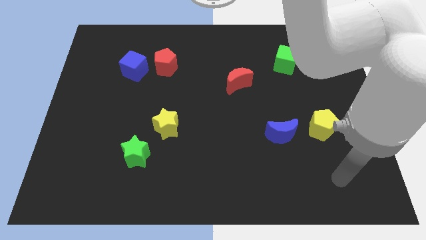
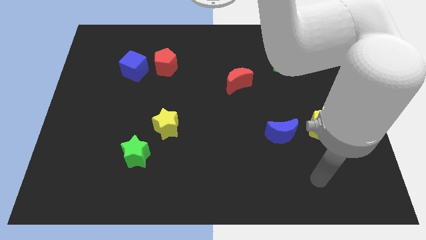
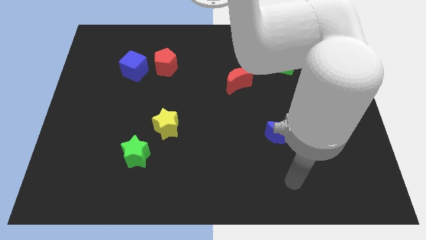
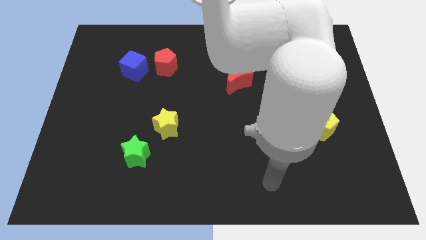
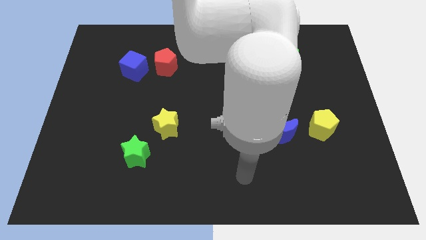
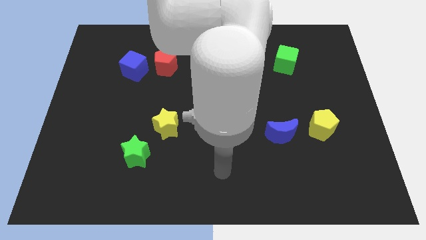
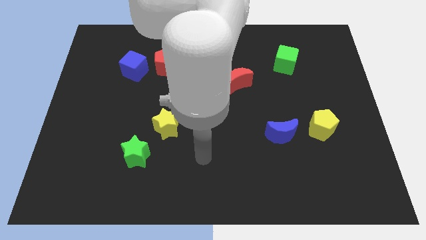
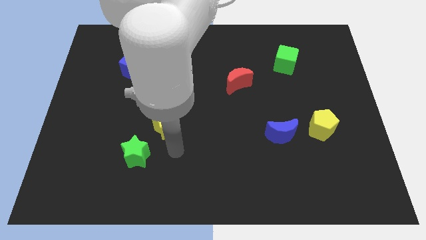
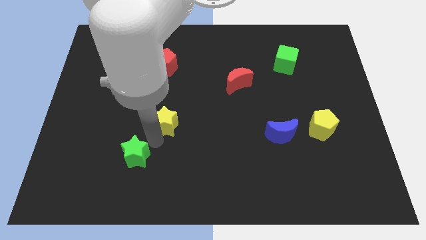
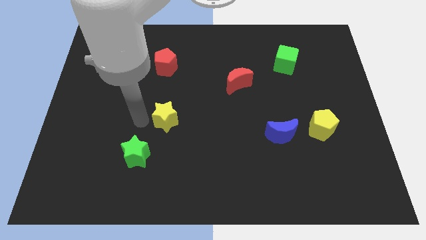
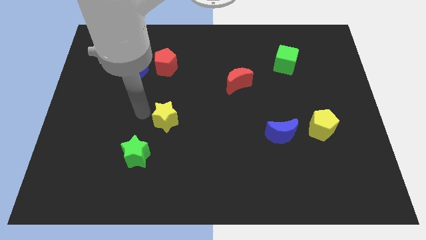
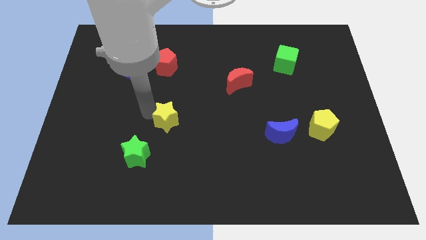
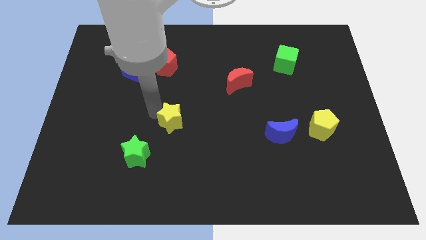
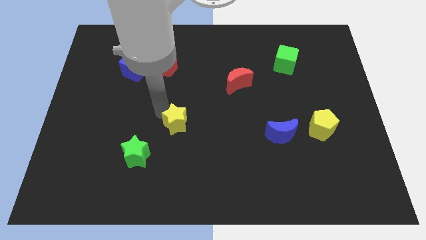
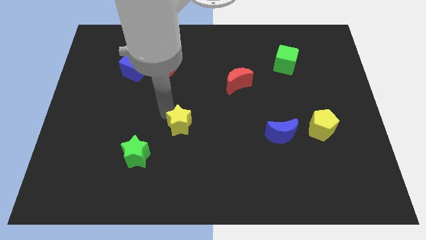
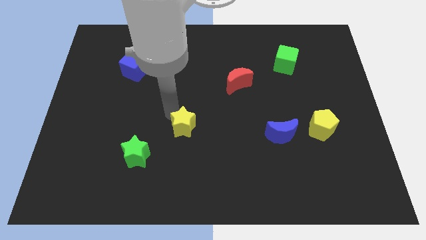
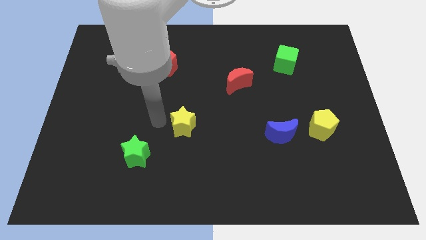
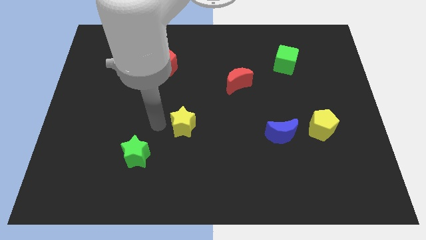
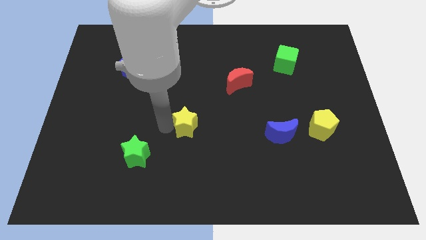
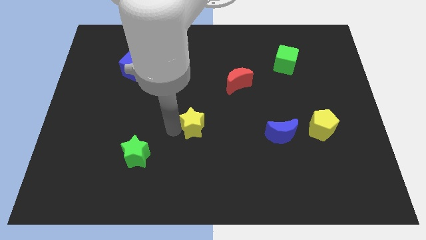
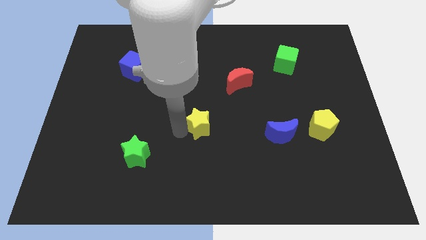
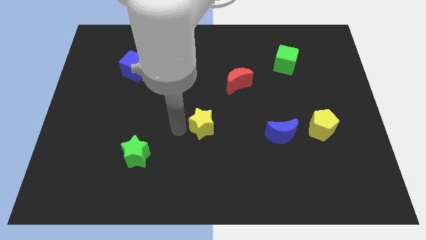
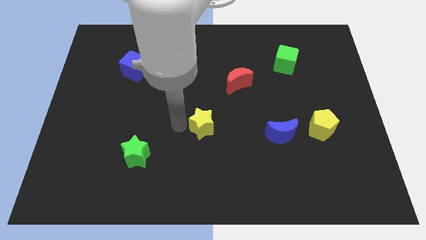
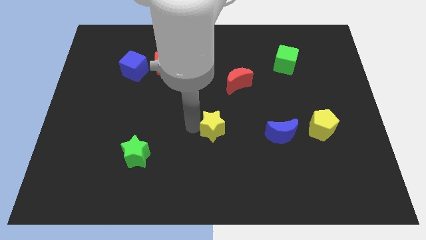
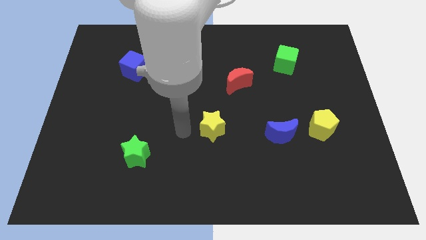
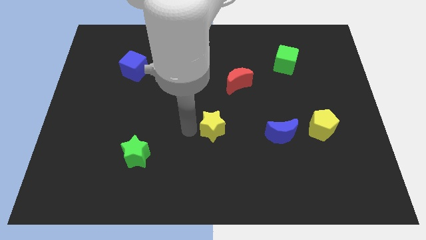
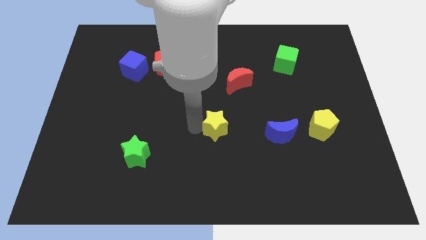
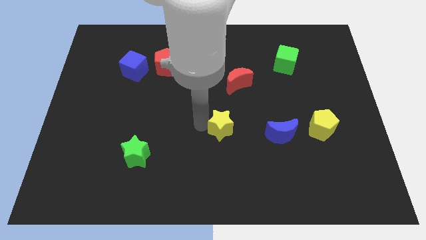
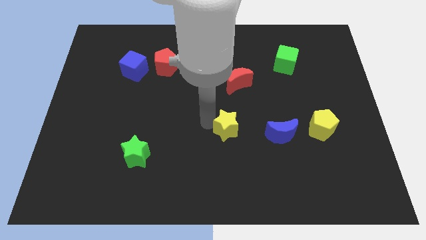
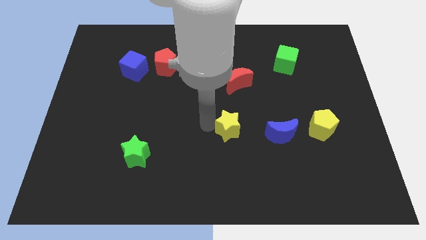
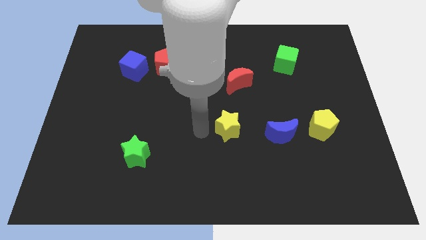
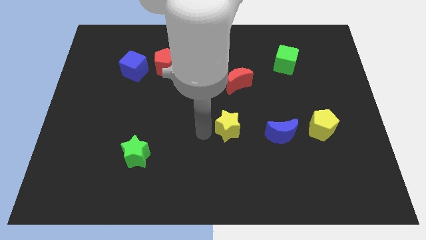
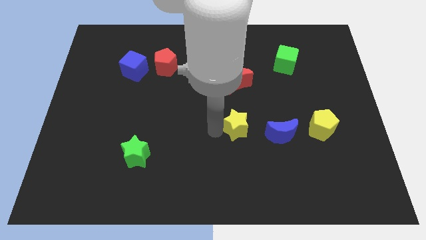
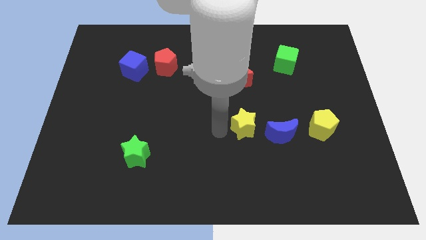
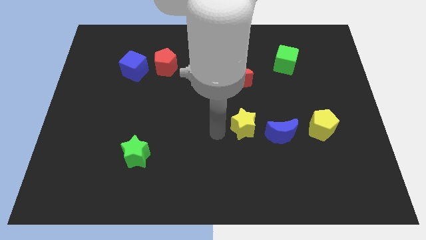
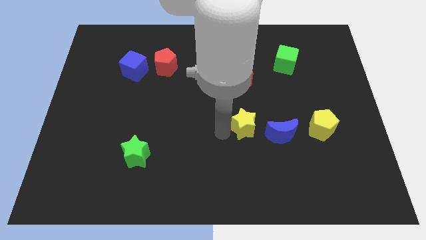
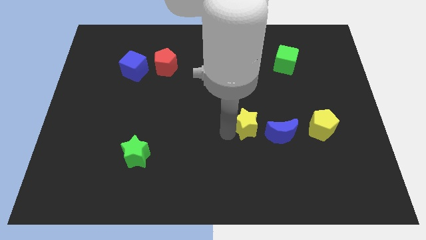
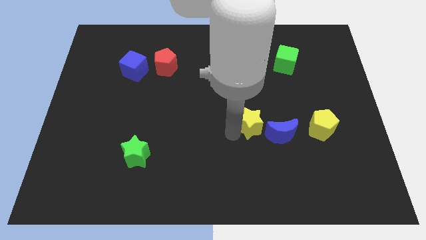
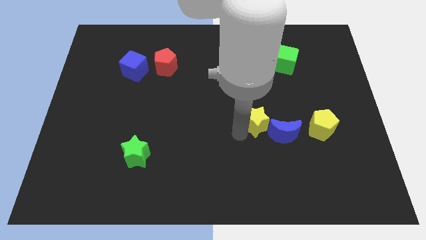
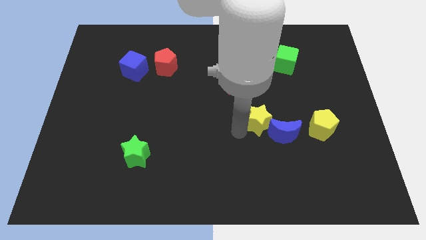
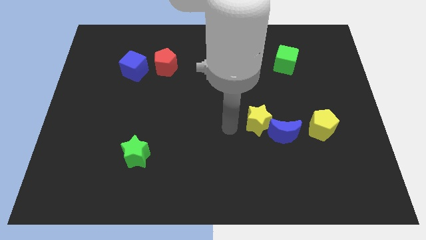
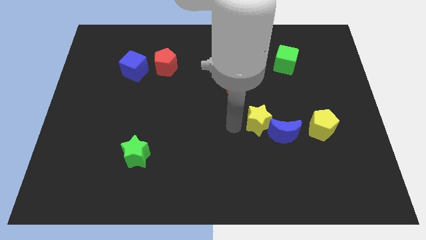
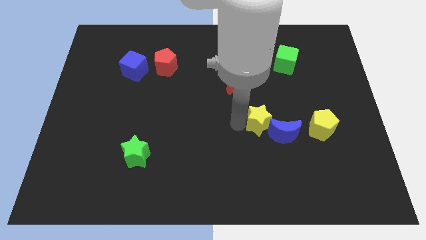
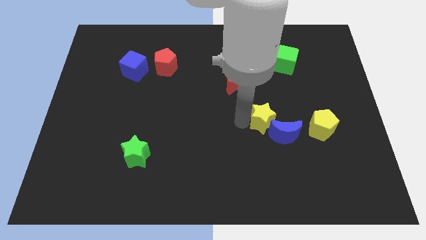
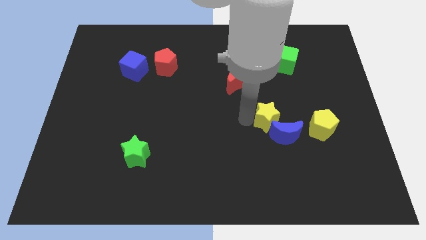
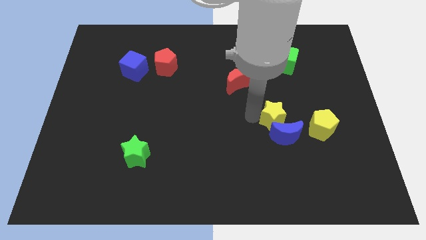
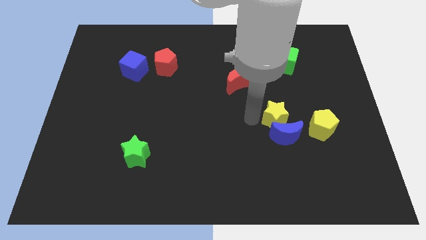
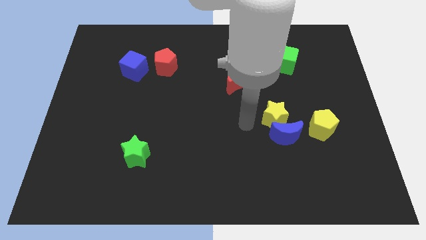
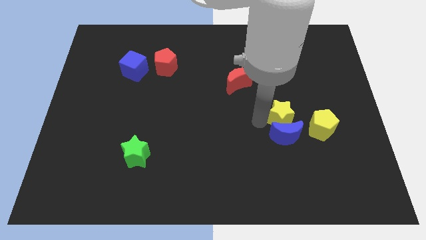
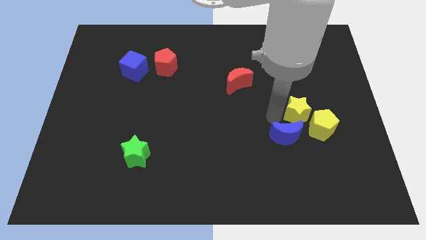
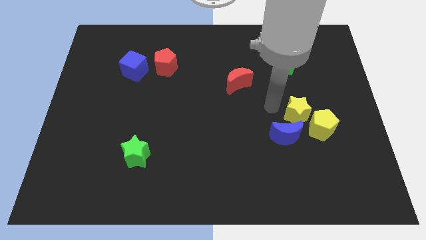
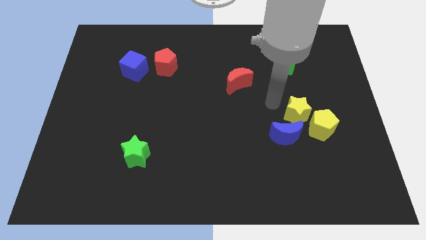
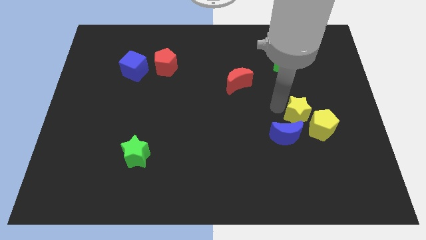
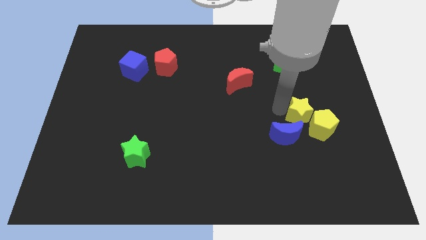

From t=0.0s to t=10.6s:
push the yellow star towards the yellow pentagon

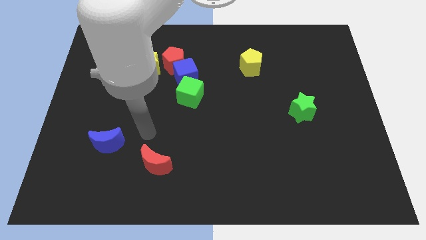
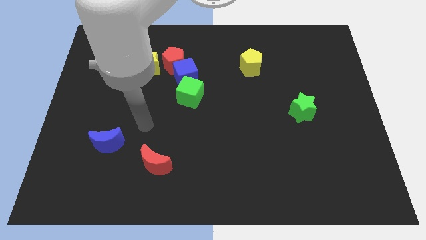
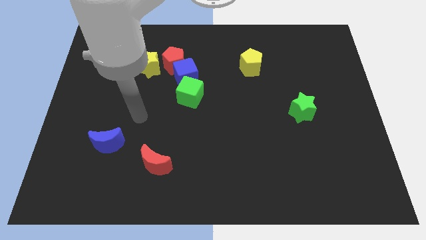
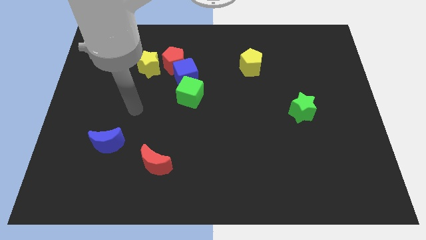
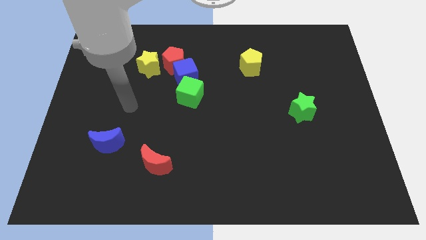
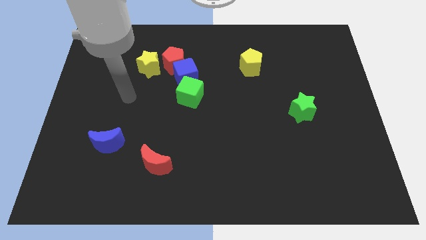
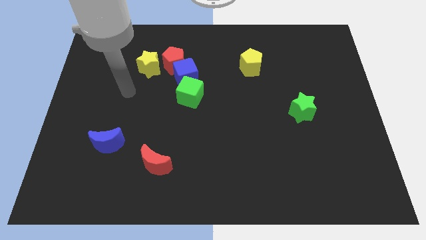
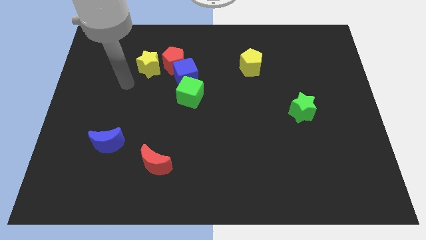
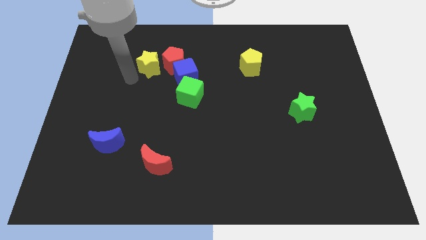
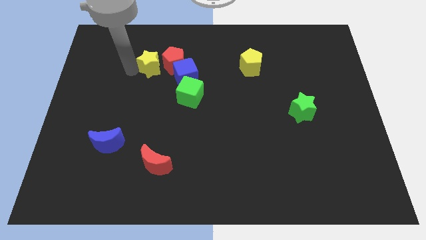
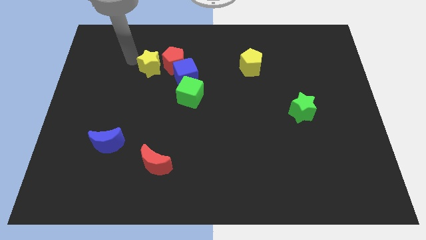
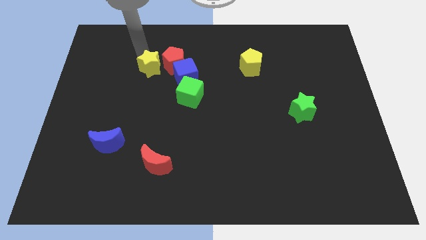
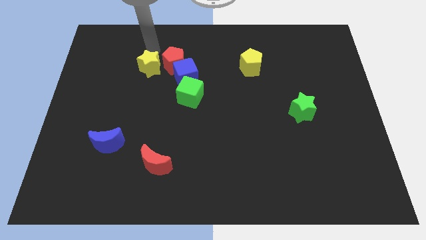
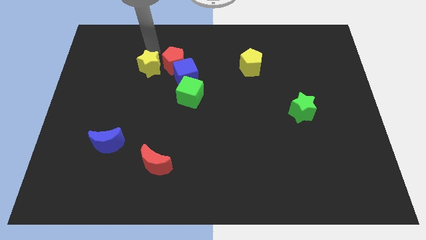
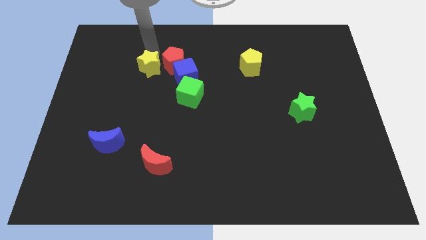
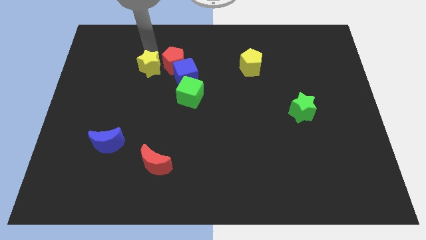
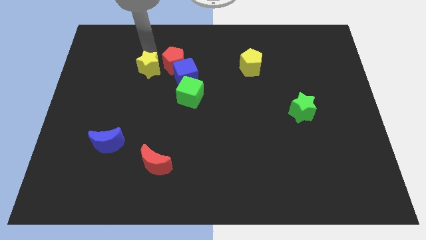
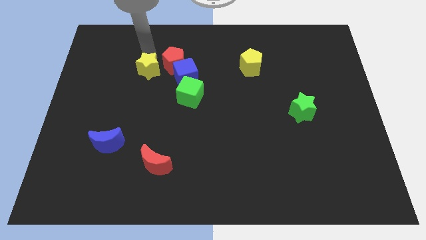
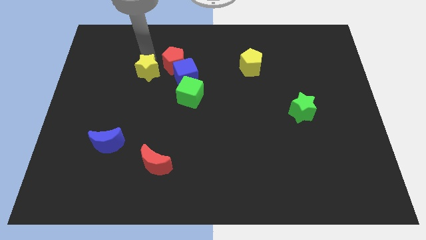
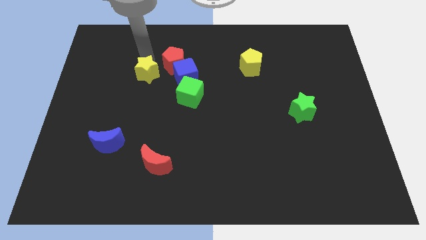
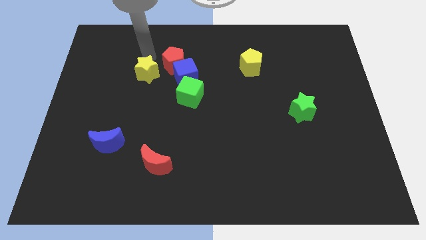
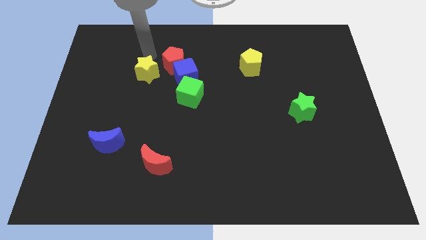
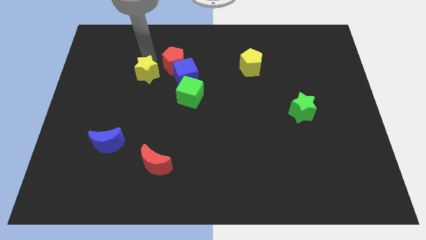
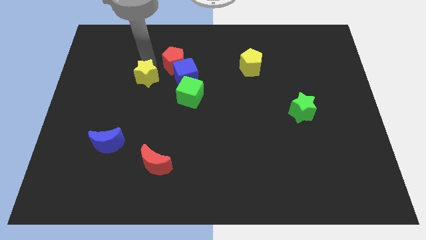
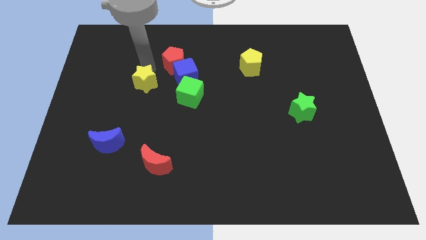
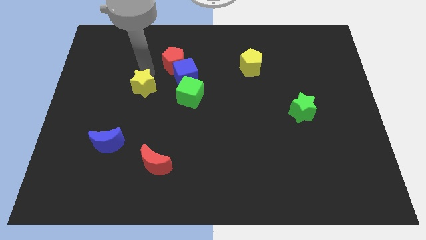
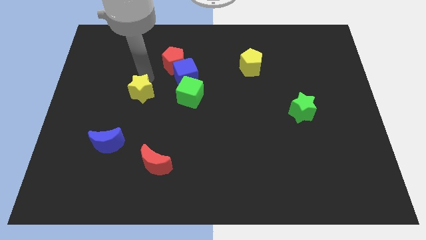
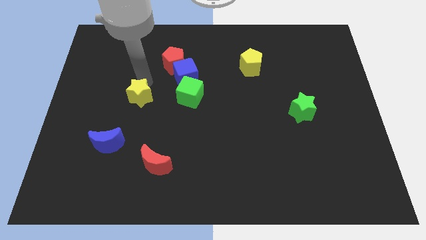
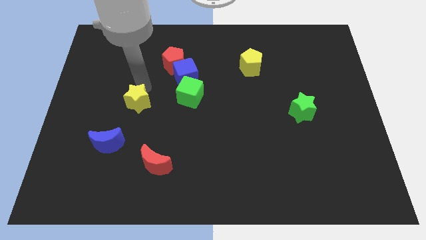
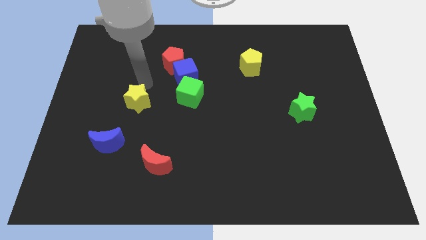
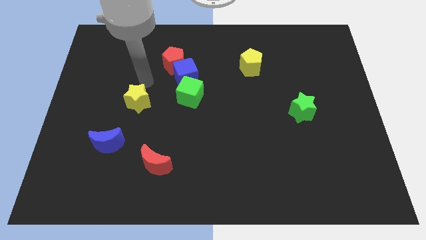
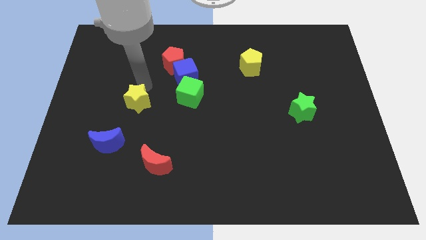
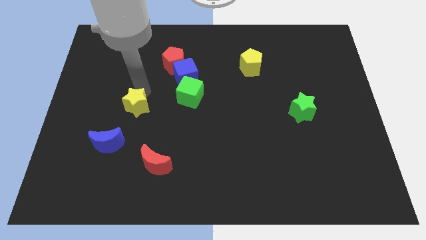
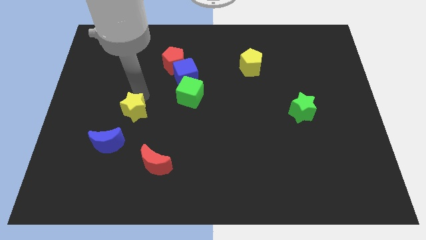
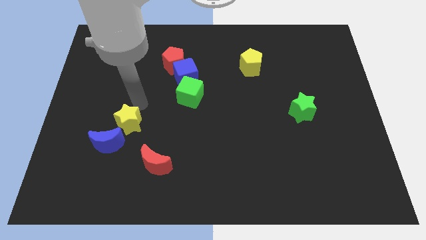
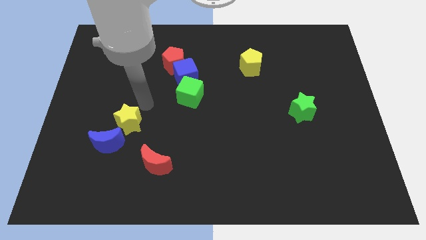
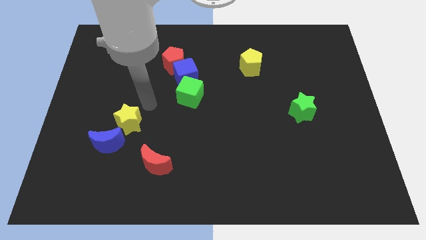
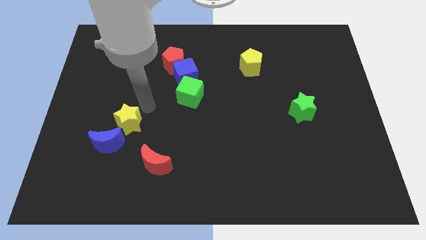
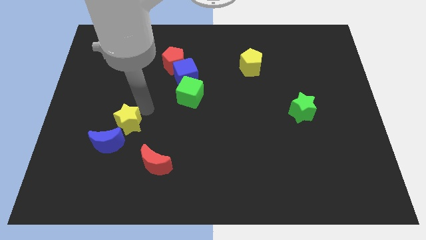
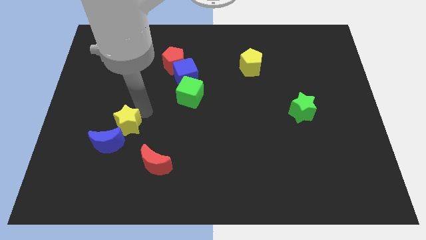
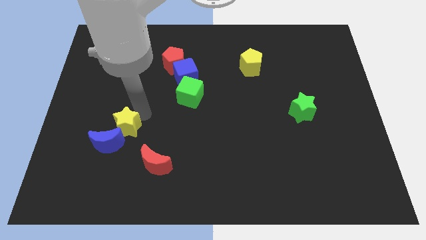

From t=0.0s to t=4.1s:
slide the yellow star next to the blue moon
